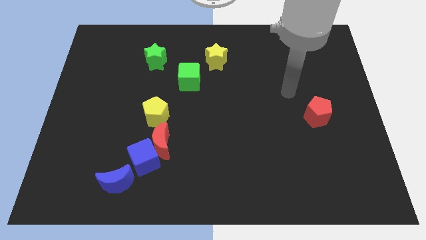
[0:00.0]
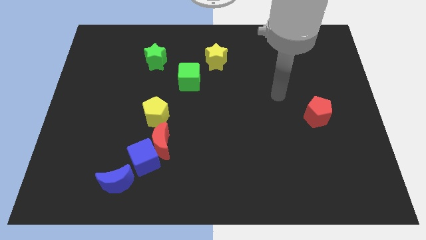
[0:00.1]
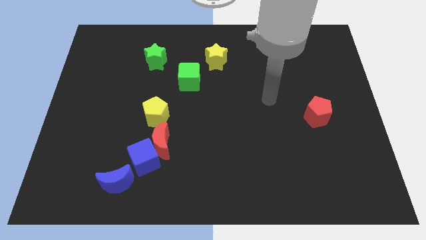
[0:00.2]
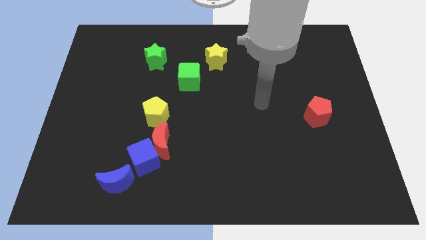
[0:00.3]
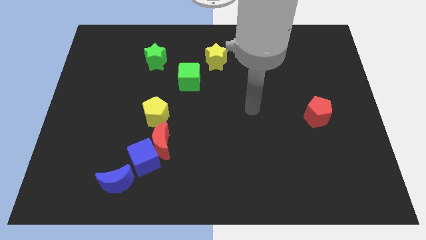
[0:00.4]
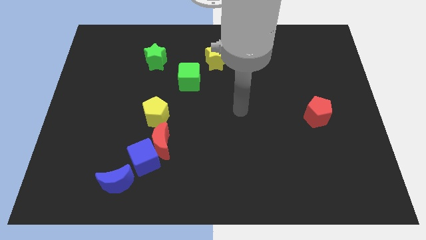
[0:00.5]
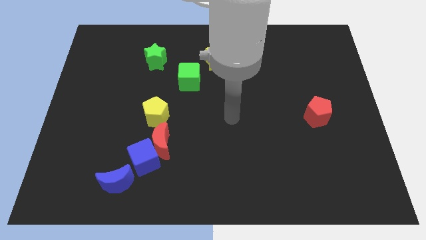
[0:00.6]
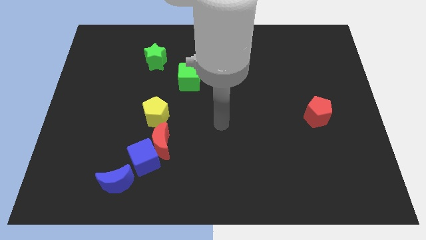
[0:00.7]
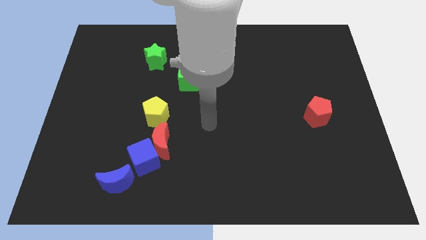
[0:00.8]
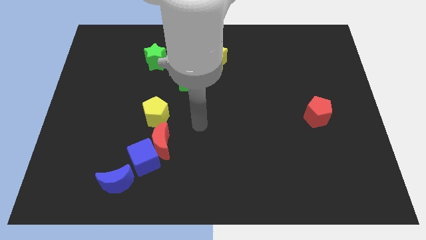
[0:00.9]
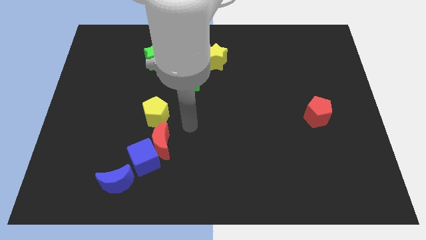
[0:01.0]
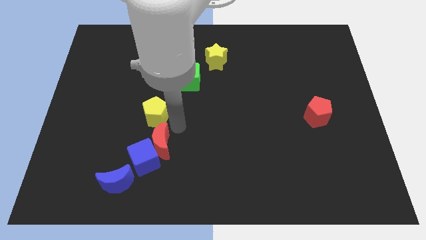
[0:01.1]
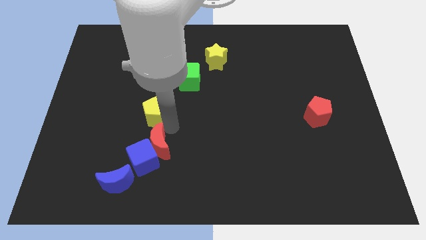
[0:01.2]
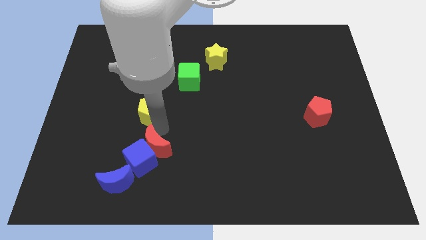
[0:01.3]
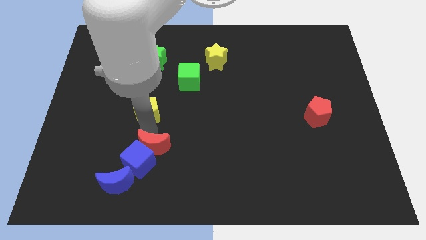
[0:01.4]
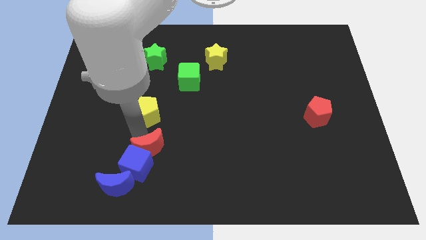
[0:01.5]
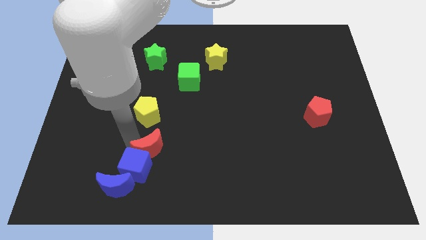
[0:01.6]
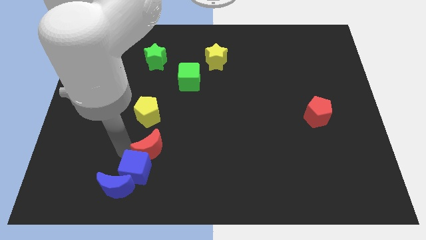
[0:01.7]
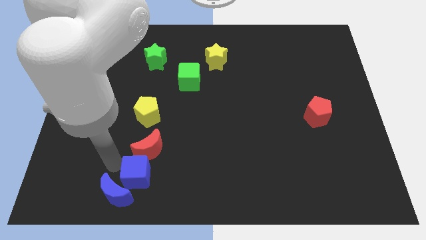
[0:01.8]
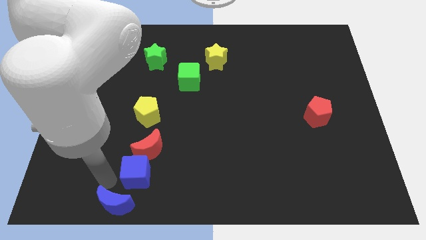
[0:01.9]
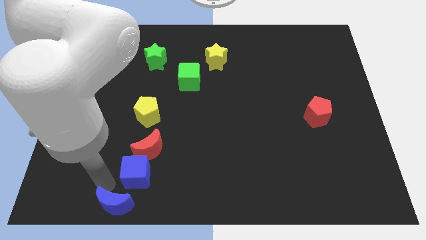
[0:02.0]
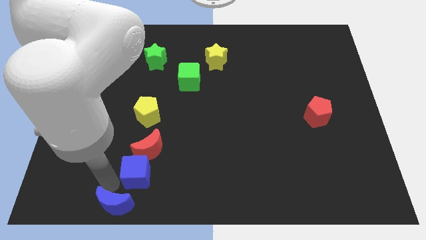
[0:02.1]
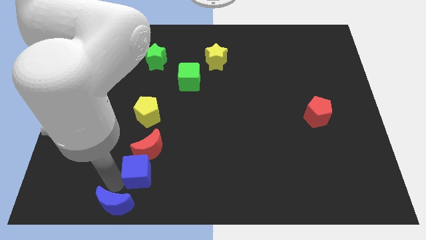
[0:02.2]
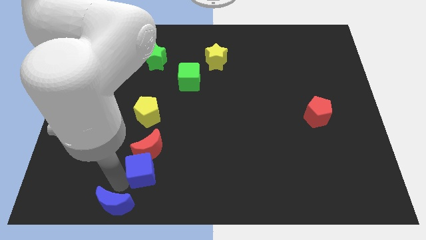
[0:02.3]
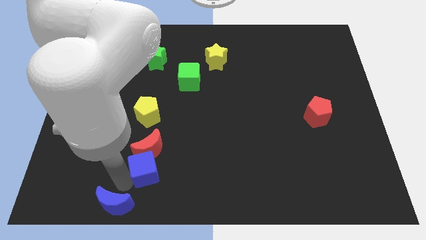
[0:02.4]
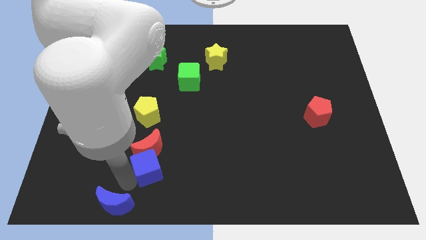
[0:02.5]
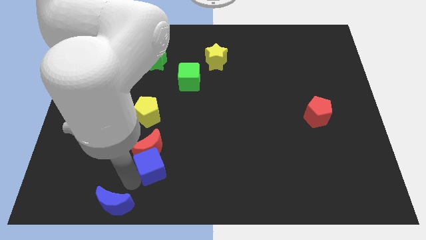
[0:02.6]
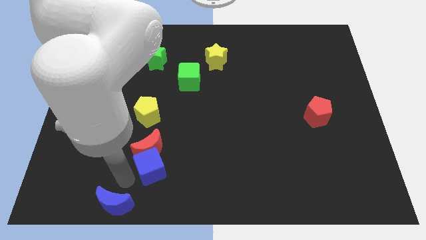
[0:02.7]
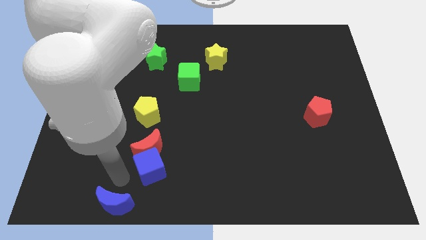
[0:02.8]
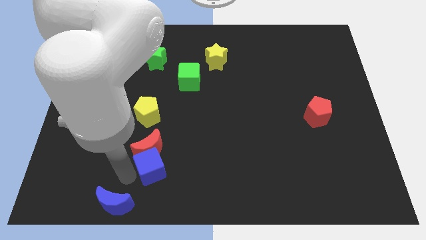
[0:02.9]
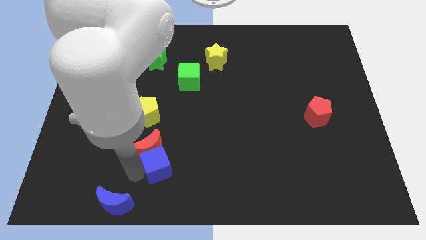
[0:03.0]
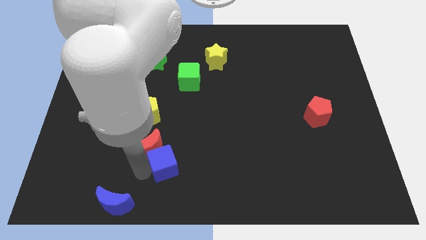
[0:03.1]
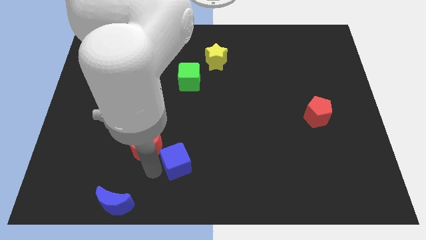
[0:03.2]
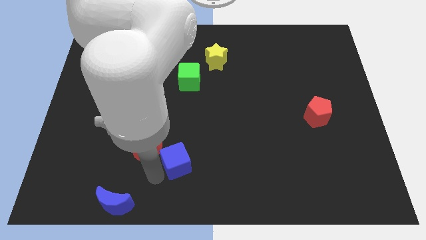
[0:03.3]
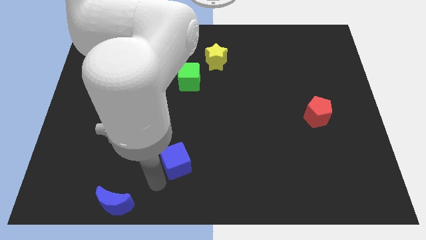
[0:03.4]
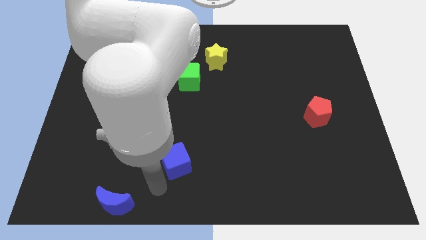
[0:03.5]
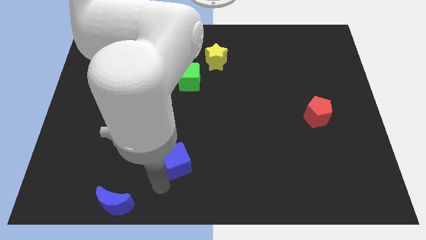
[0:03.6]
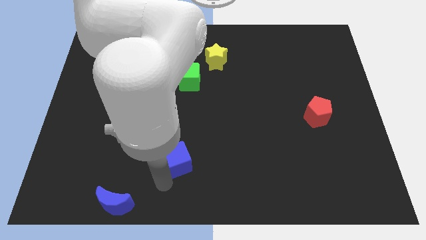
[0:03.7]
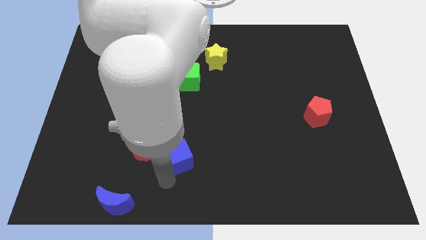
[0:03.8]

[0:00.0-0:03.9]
separate the blue cube from the red moon and blue moon

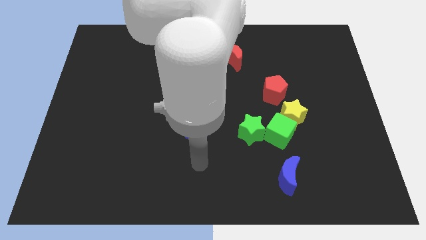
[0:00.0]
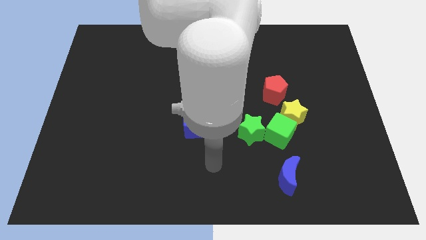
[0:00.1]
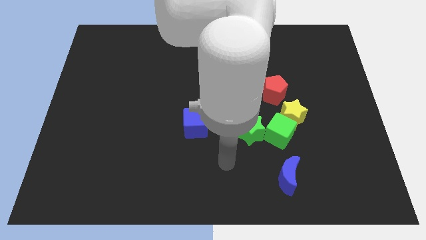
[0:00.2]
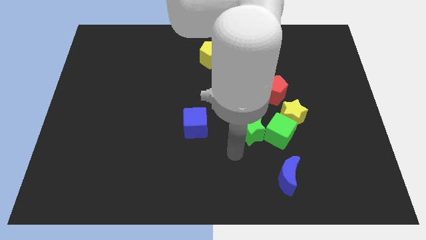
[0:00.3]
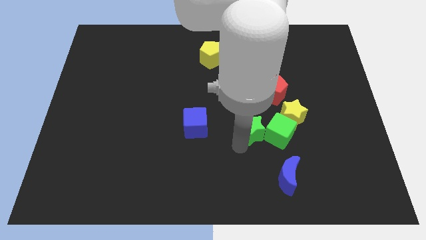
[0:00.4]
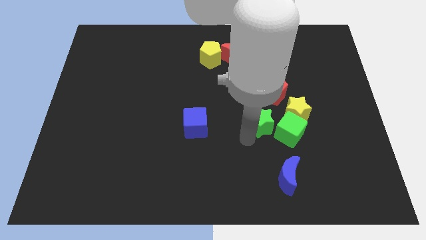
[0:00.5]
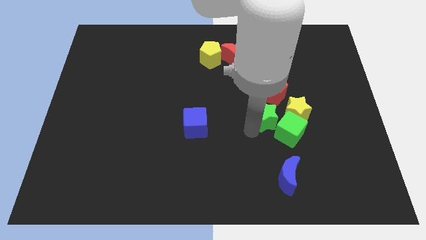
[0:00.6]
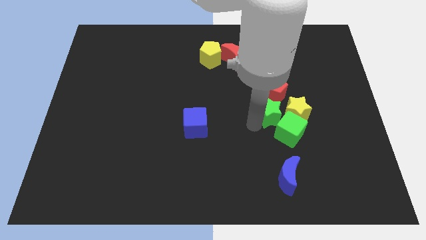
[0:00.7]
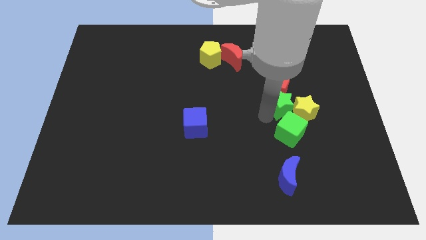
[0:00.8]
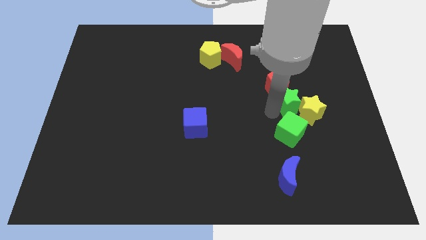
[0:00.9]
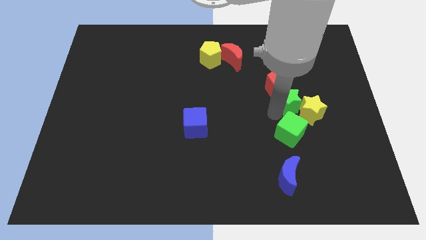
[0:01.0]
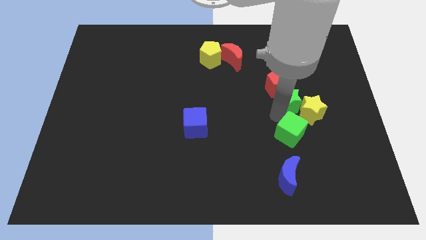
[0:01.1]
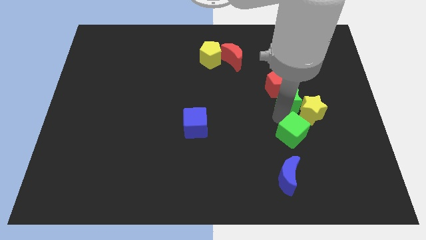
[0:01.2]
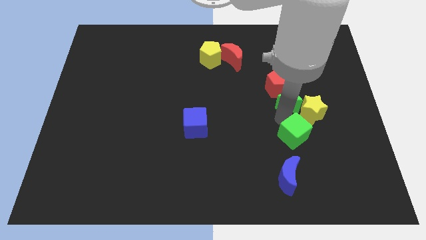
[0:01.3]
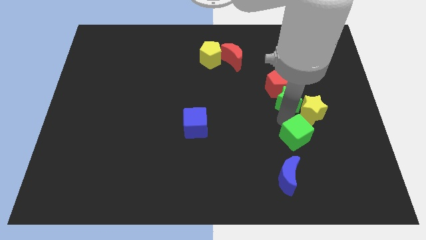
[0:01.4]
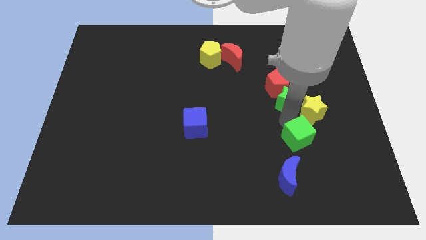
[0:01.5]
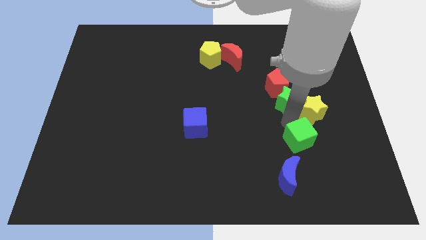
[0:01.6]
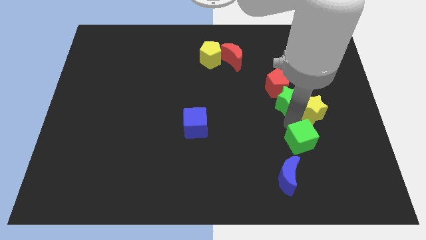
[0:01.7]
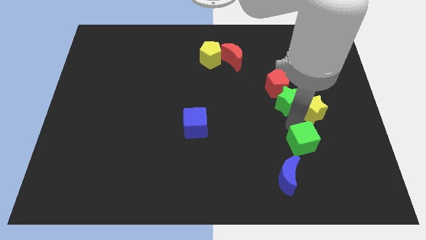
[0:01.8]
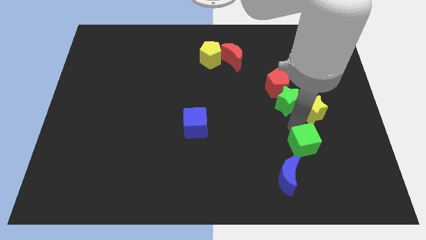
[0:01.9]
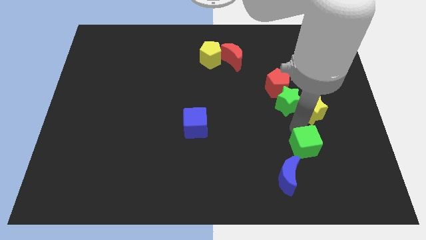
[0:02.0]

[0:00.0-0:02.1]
move the green cube away from the yellow star and green star
